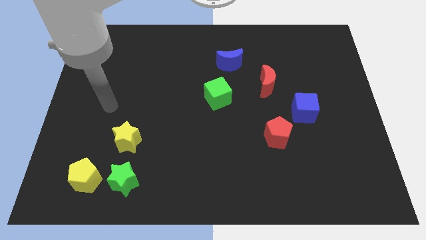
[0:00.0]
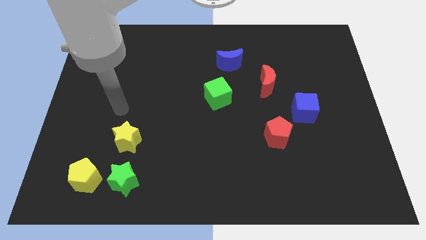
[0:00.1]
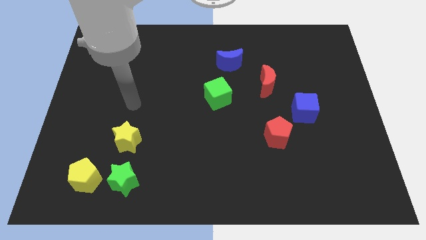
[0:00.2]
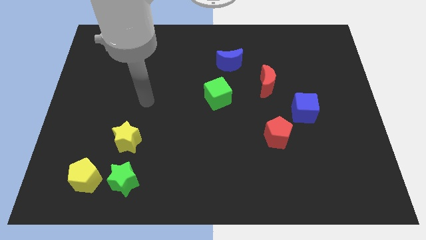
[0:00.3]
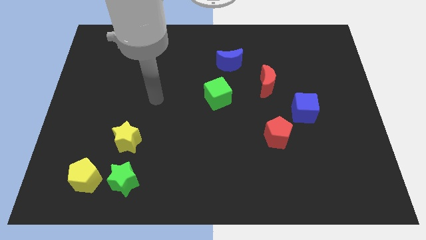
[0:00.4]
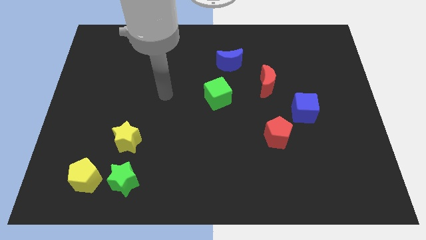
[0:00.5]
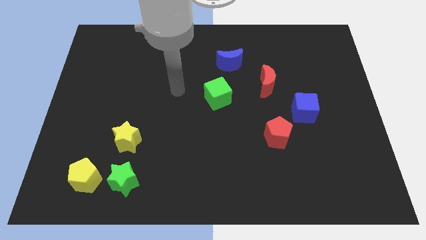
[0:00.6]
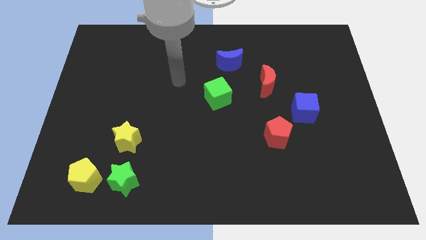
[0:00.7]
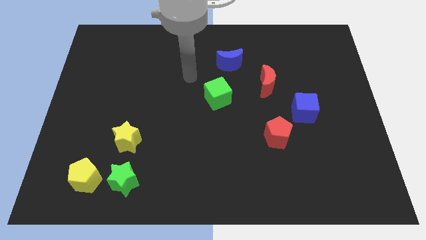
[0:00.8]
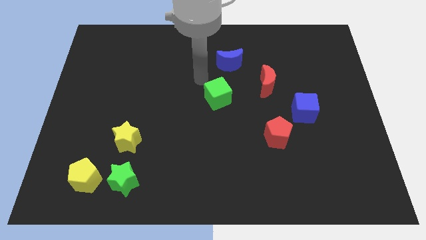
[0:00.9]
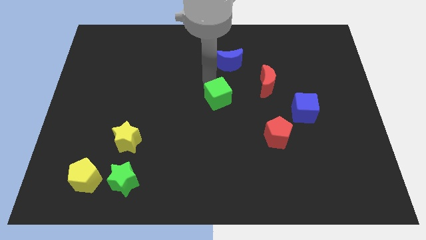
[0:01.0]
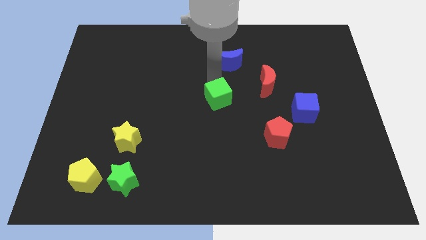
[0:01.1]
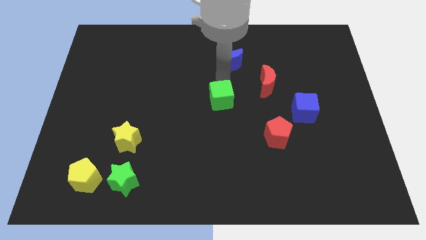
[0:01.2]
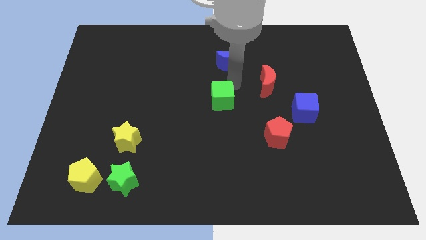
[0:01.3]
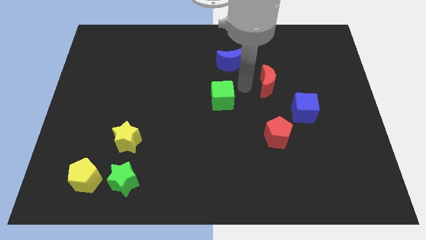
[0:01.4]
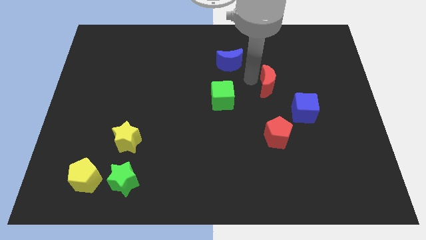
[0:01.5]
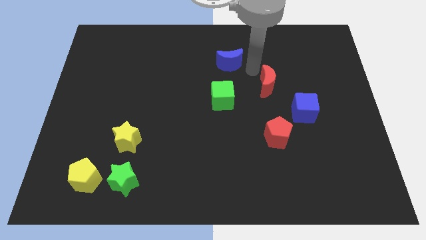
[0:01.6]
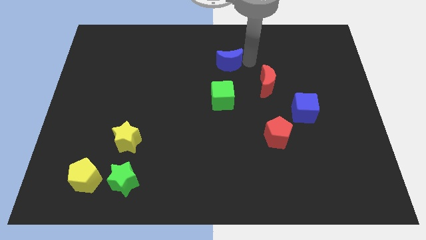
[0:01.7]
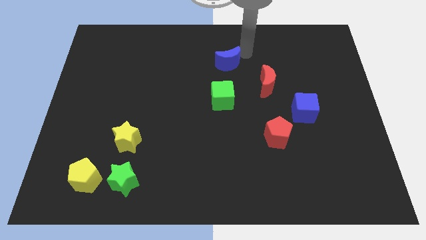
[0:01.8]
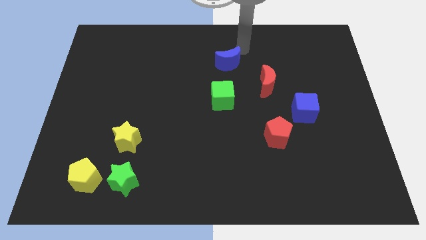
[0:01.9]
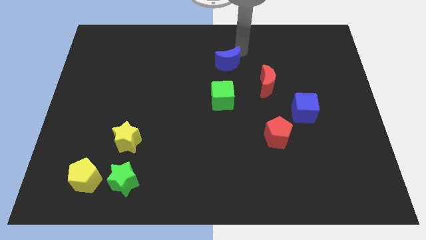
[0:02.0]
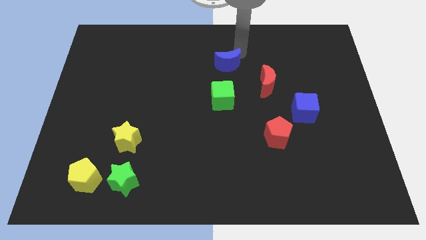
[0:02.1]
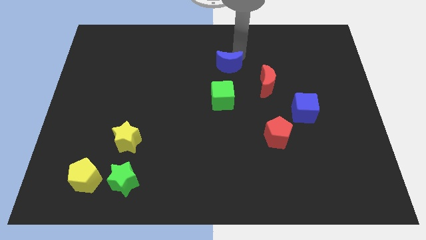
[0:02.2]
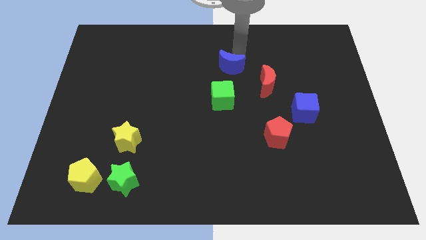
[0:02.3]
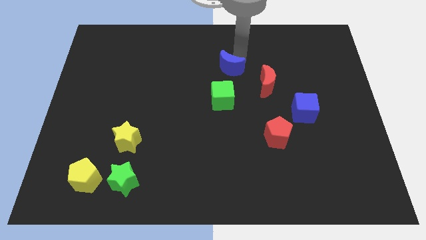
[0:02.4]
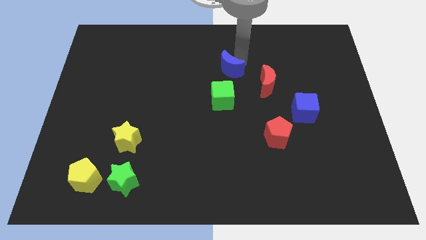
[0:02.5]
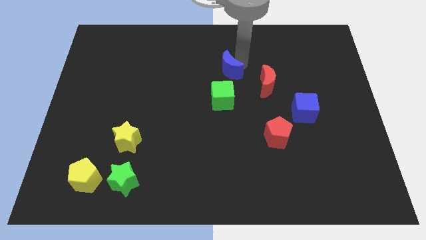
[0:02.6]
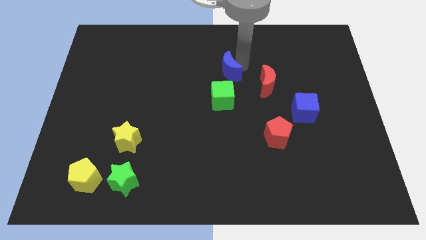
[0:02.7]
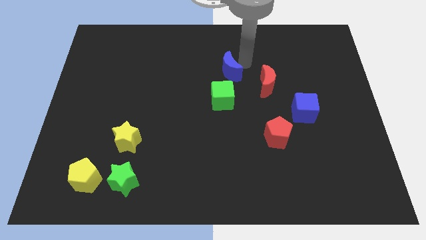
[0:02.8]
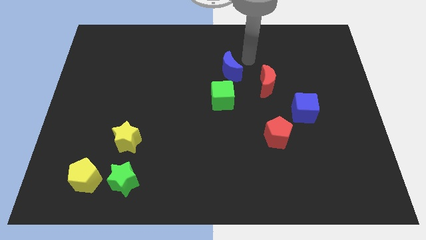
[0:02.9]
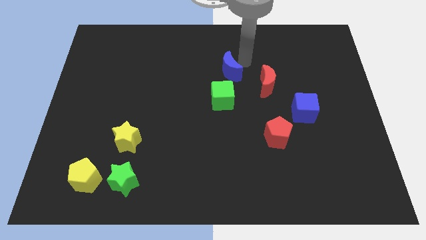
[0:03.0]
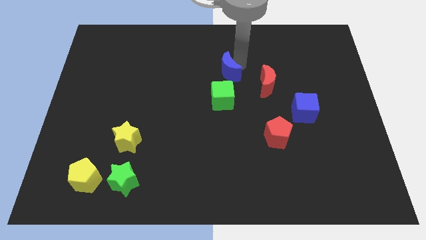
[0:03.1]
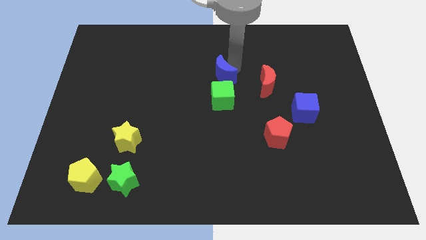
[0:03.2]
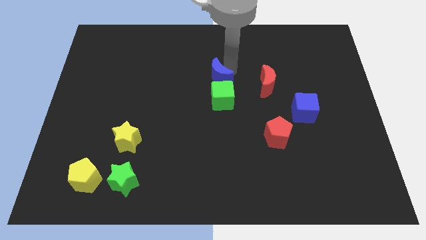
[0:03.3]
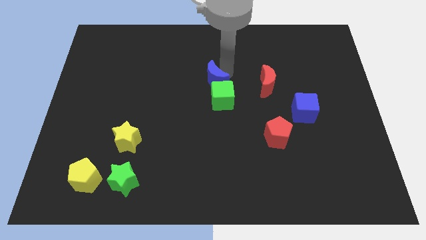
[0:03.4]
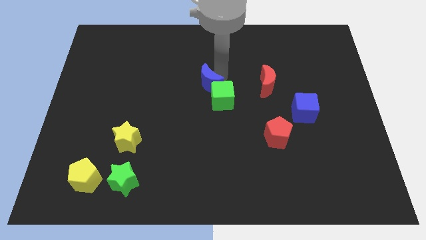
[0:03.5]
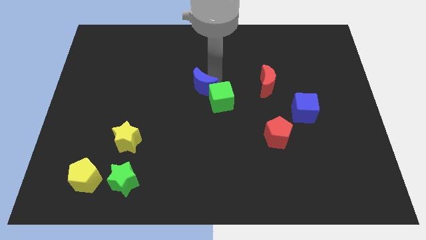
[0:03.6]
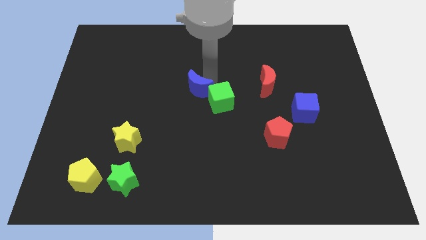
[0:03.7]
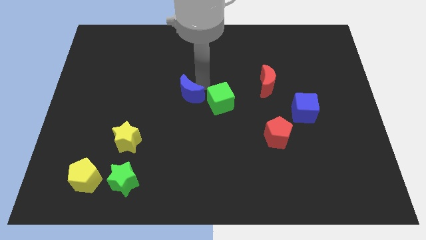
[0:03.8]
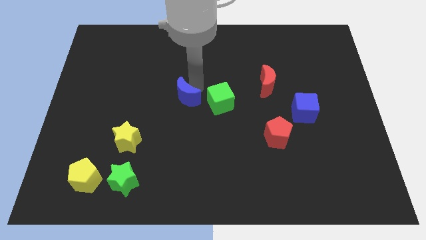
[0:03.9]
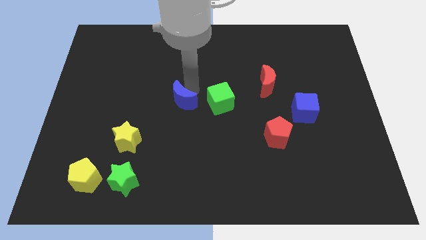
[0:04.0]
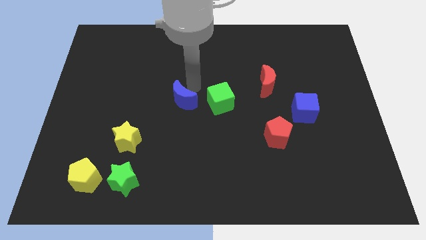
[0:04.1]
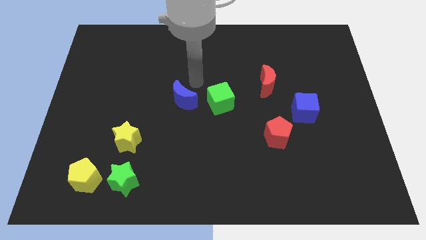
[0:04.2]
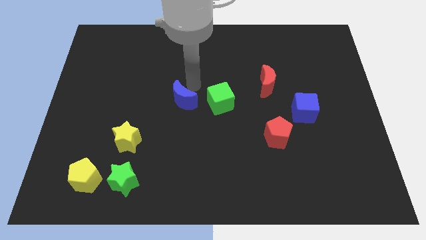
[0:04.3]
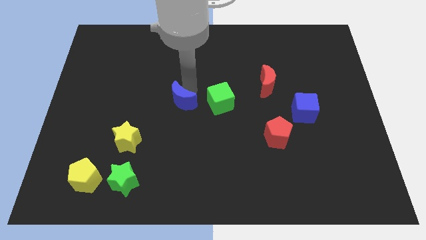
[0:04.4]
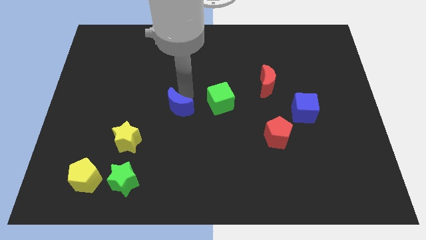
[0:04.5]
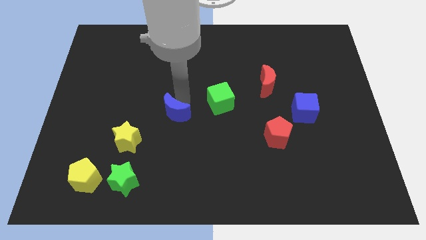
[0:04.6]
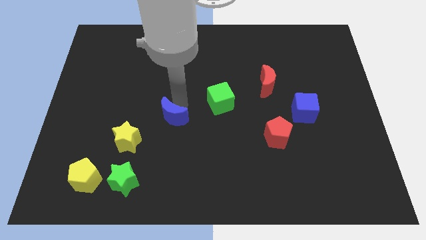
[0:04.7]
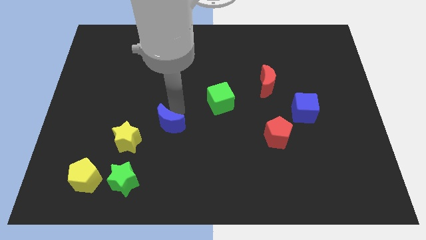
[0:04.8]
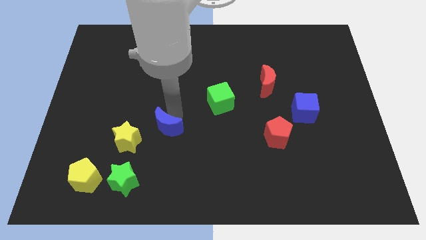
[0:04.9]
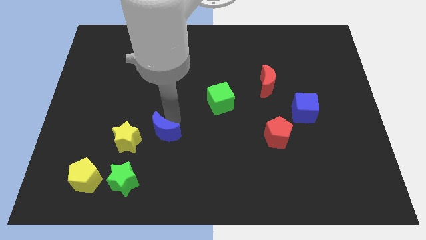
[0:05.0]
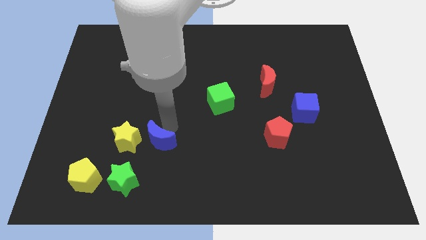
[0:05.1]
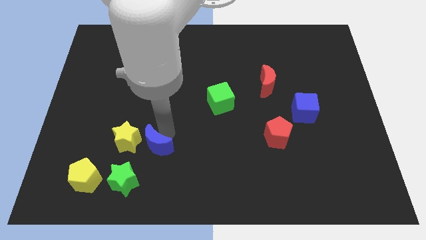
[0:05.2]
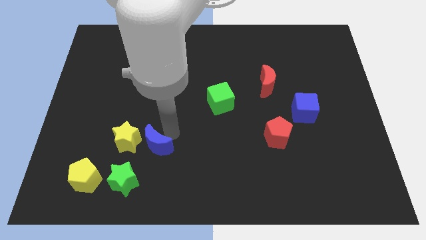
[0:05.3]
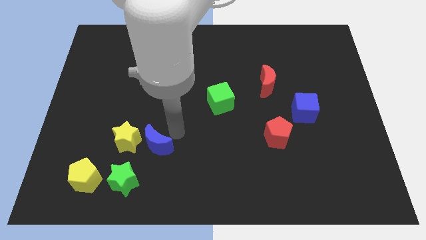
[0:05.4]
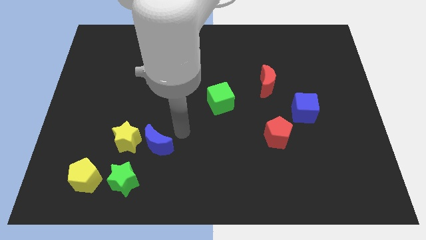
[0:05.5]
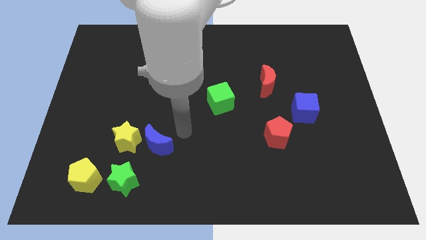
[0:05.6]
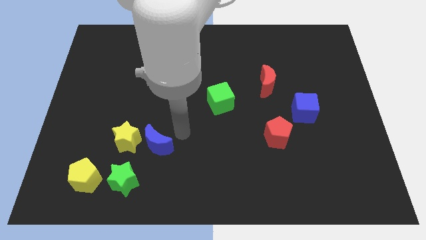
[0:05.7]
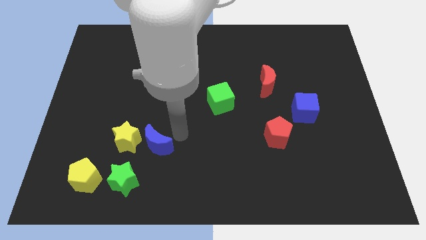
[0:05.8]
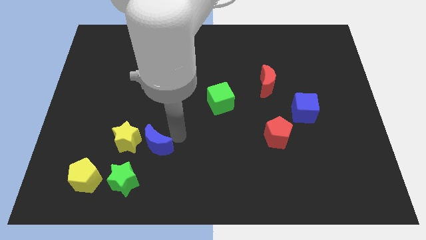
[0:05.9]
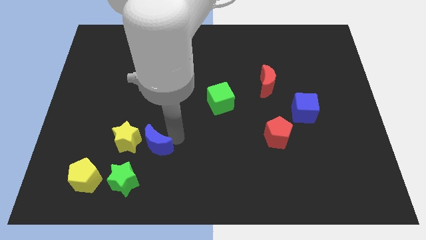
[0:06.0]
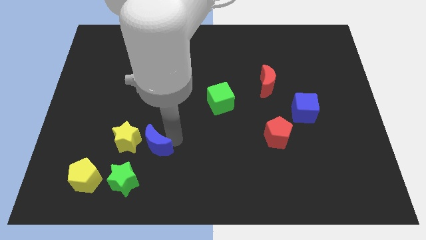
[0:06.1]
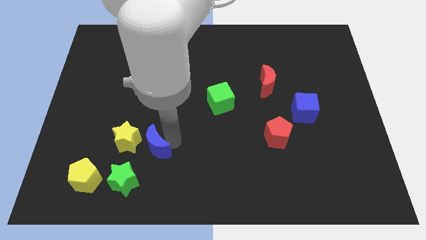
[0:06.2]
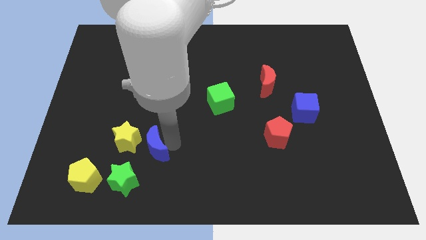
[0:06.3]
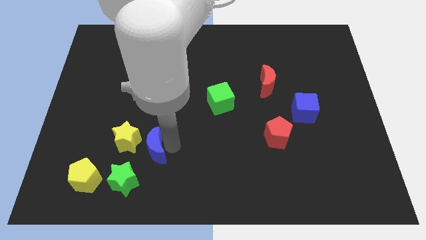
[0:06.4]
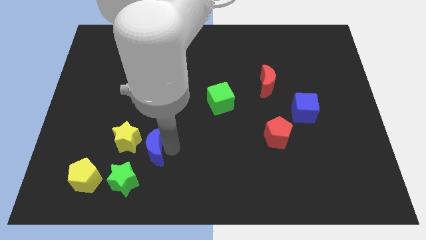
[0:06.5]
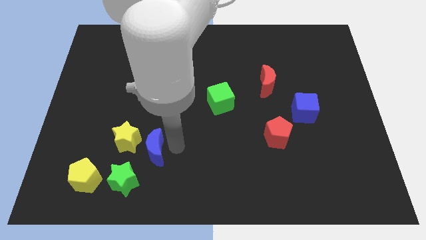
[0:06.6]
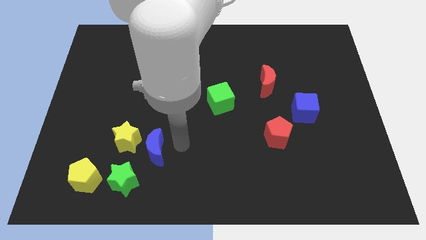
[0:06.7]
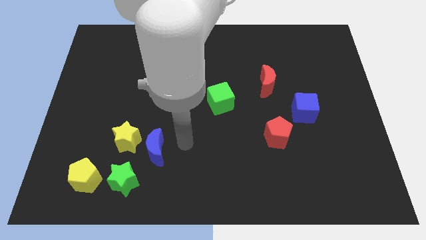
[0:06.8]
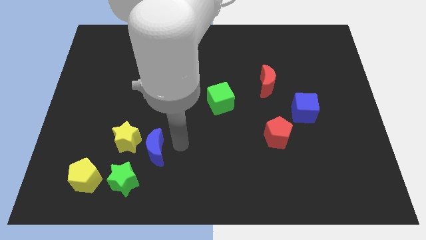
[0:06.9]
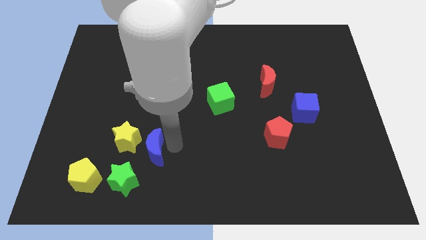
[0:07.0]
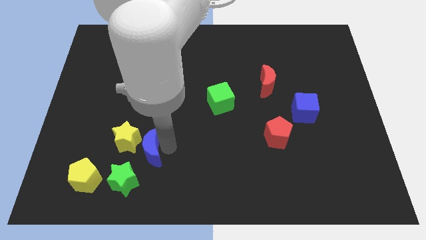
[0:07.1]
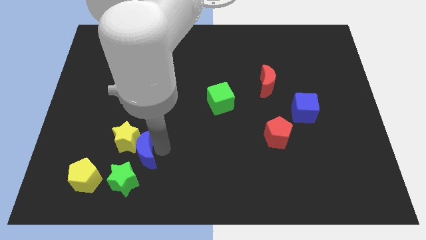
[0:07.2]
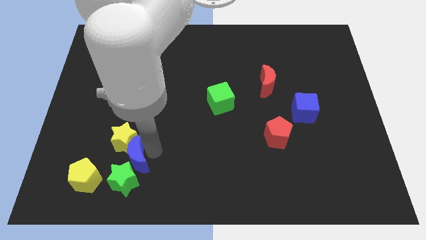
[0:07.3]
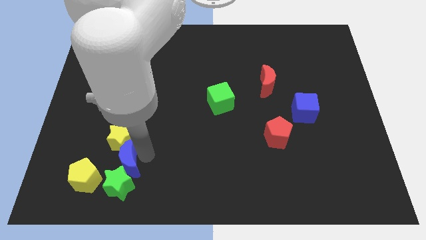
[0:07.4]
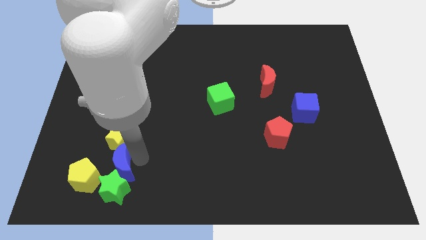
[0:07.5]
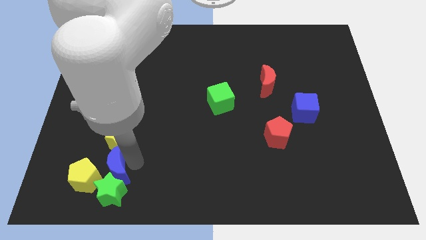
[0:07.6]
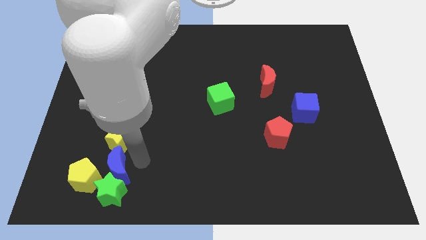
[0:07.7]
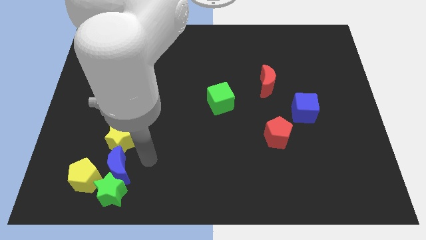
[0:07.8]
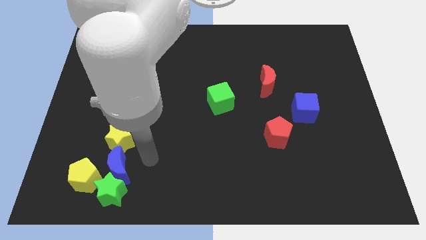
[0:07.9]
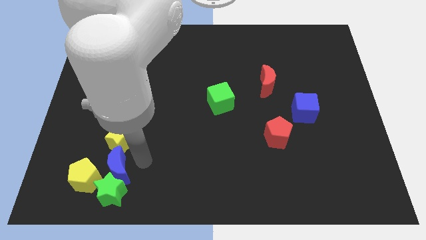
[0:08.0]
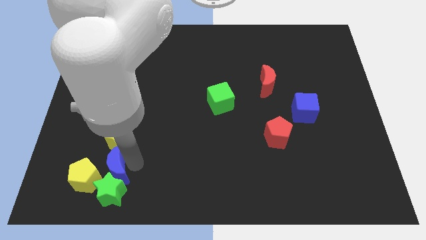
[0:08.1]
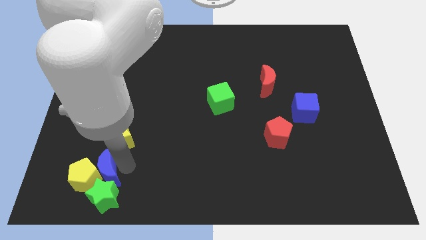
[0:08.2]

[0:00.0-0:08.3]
push the blue moon next to the yellow pentagon
